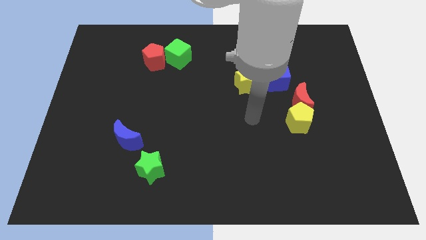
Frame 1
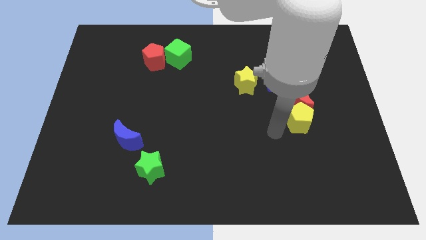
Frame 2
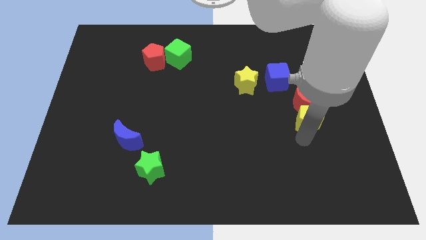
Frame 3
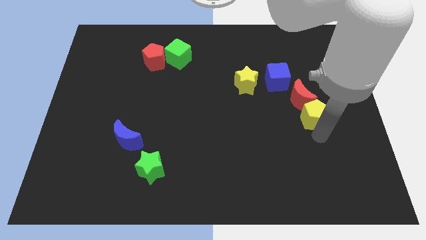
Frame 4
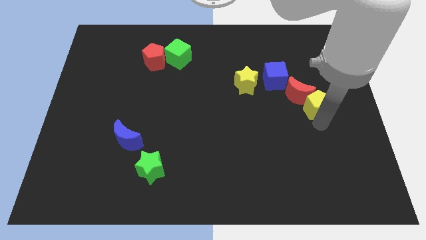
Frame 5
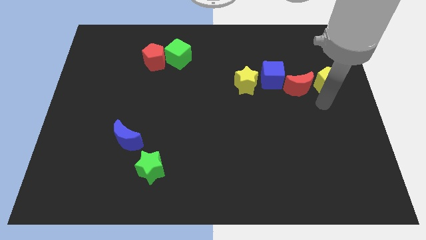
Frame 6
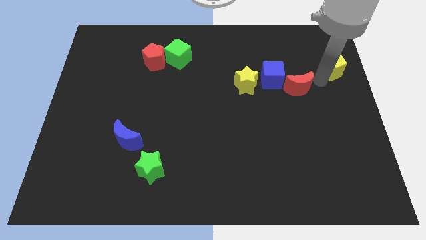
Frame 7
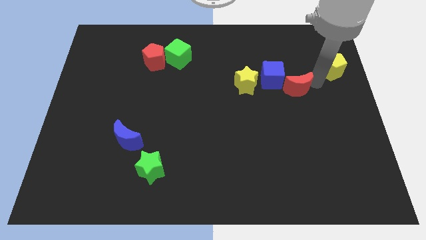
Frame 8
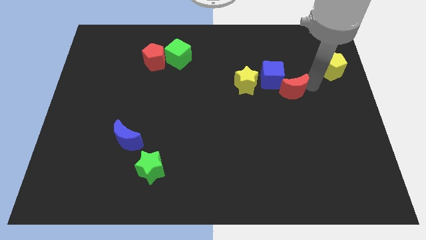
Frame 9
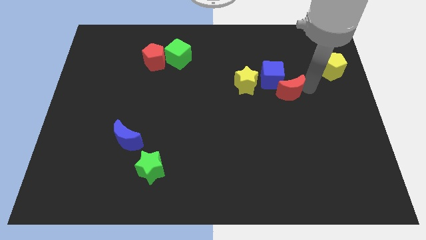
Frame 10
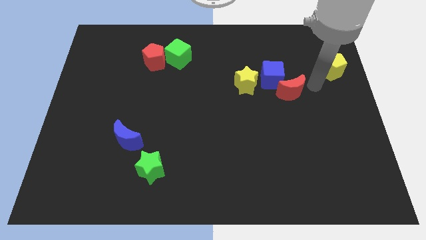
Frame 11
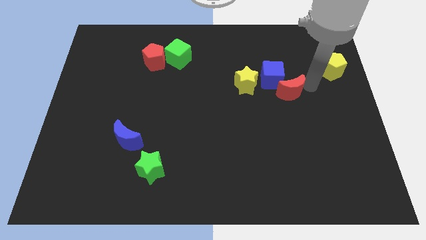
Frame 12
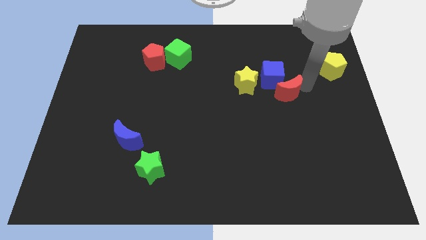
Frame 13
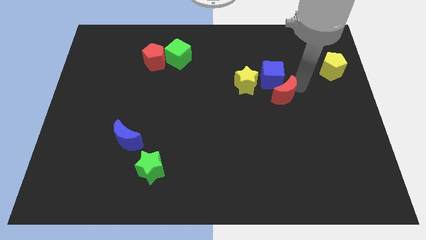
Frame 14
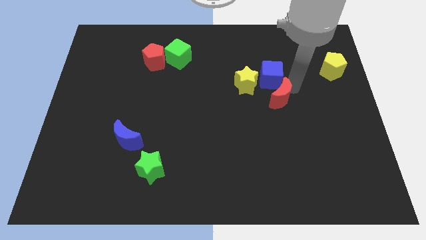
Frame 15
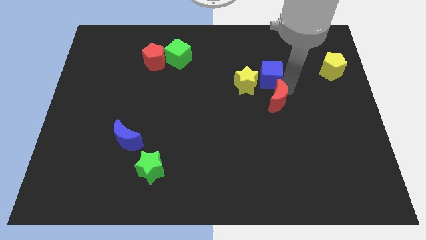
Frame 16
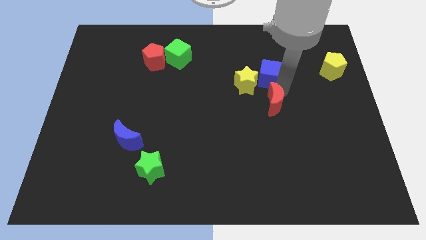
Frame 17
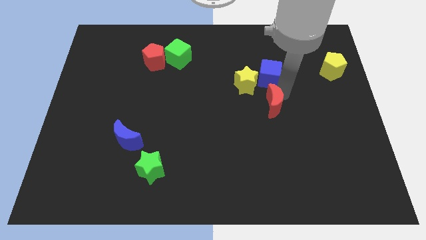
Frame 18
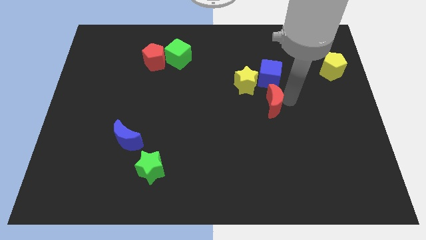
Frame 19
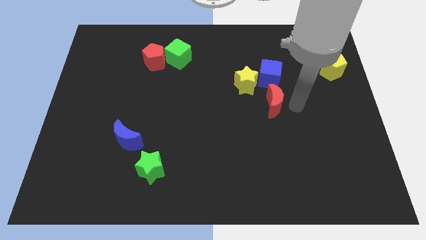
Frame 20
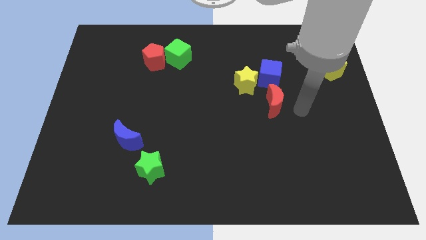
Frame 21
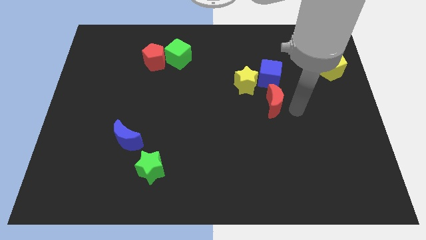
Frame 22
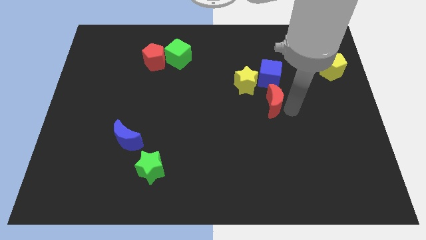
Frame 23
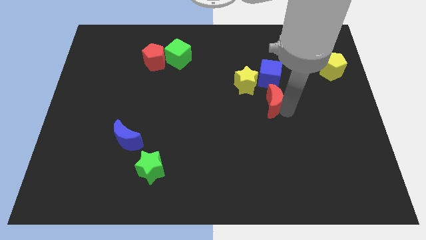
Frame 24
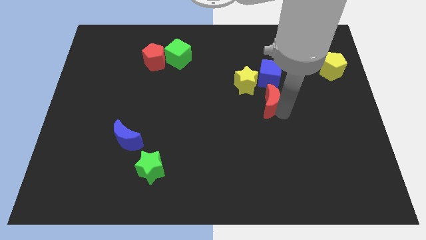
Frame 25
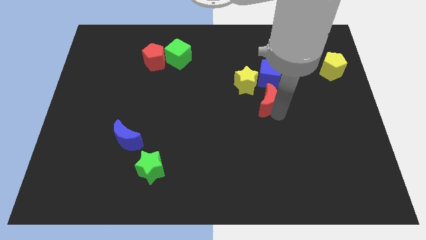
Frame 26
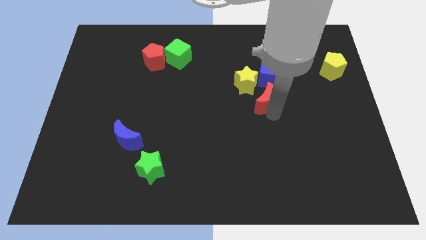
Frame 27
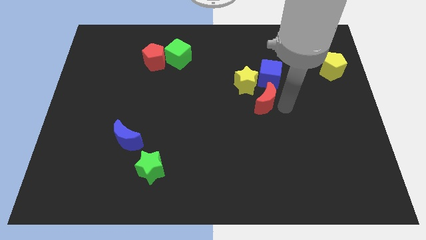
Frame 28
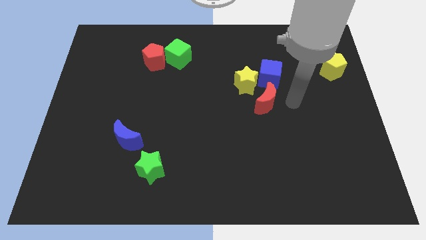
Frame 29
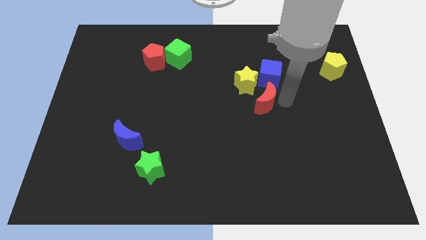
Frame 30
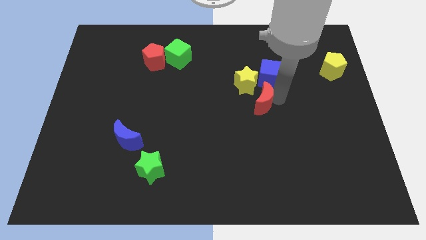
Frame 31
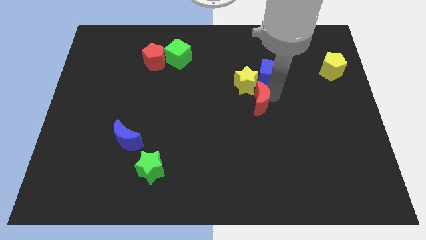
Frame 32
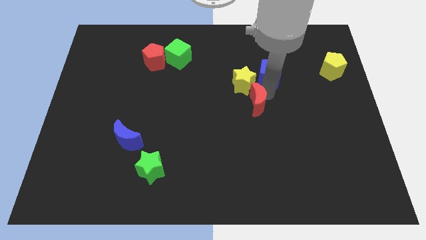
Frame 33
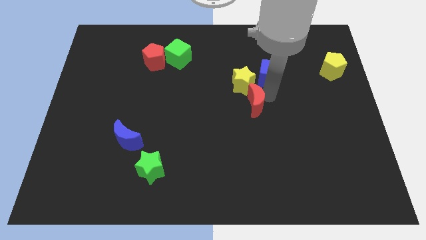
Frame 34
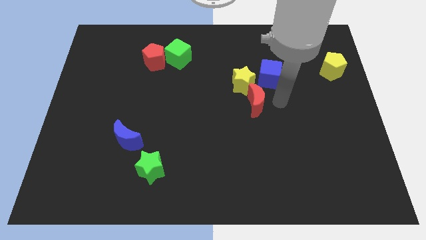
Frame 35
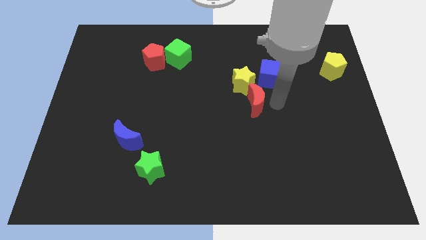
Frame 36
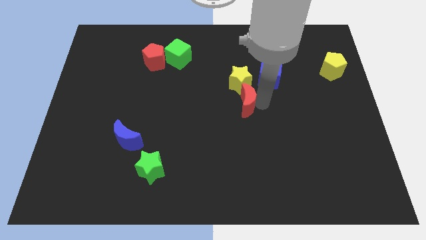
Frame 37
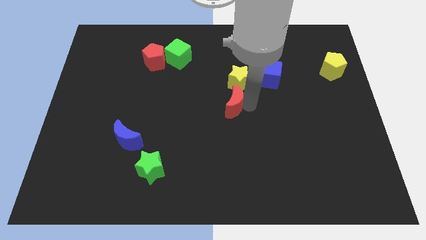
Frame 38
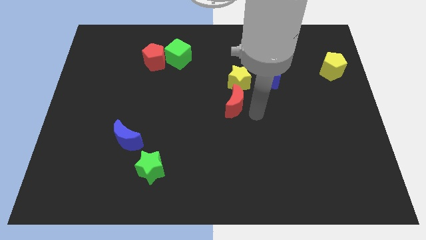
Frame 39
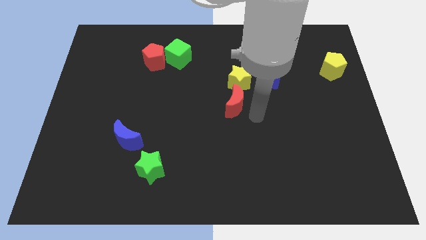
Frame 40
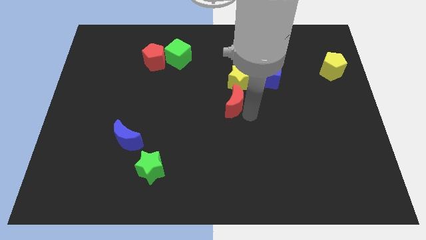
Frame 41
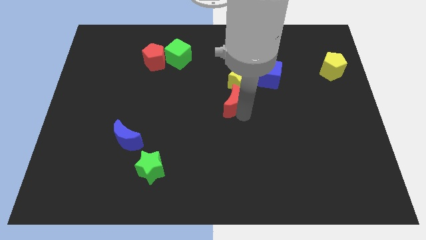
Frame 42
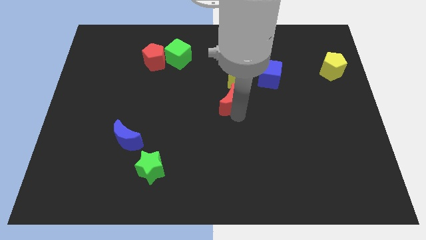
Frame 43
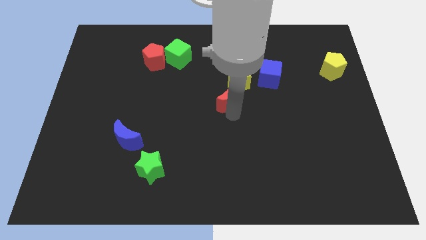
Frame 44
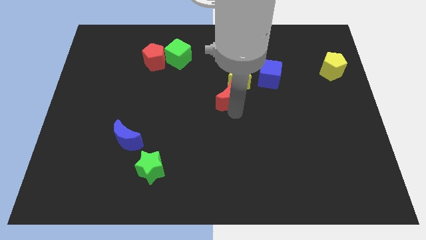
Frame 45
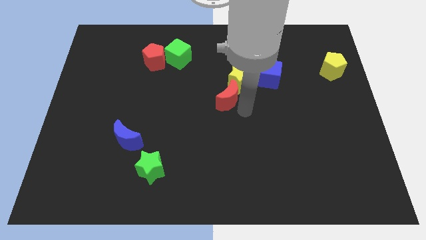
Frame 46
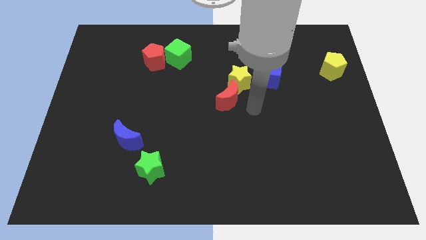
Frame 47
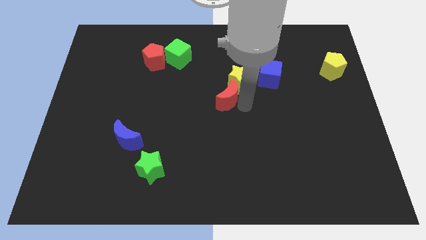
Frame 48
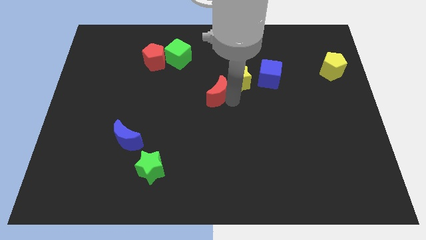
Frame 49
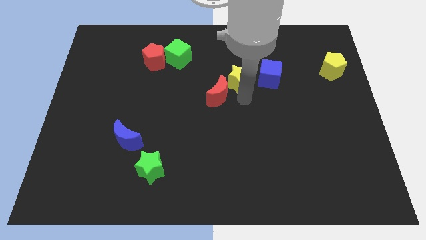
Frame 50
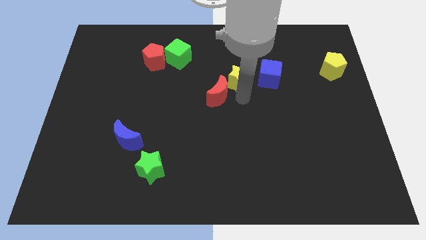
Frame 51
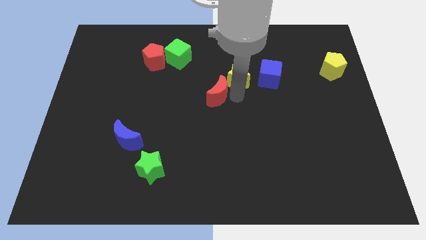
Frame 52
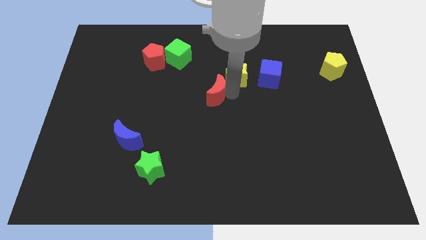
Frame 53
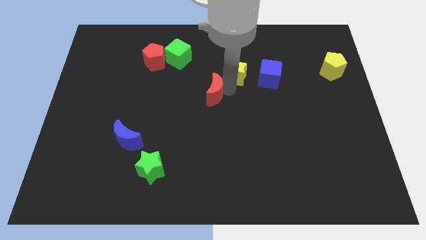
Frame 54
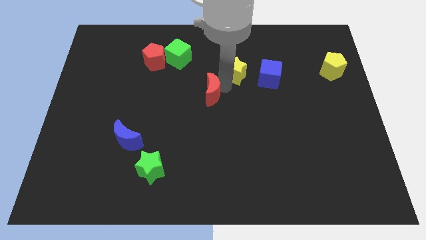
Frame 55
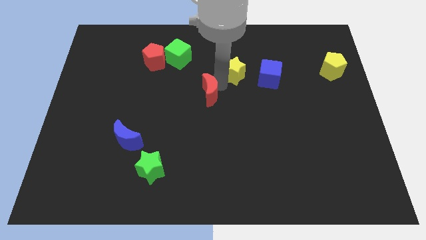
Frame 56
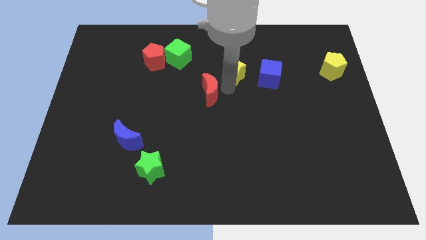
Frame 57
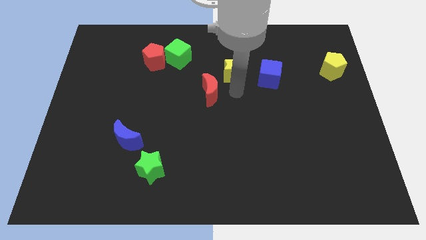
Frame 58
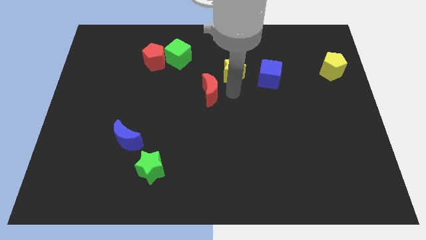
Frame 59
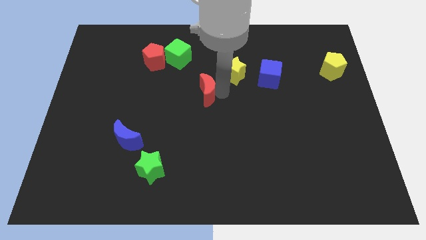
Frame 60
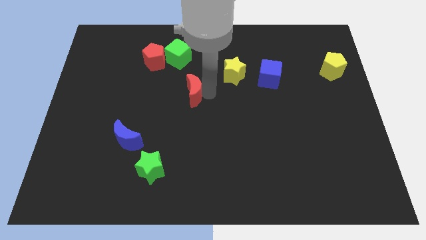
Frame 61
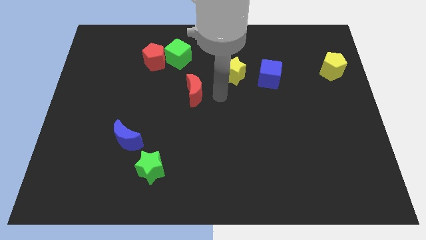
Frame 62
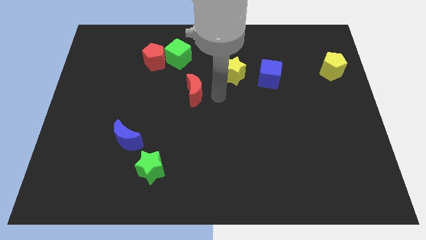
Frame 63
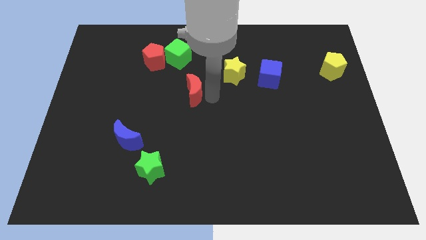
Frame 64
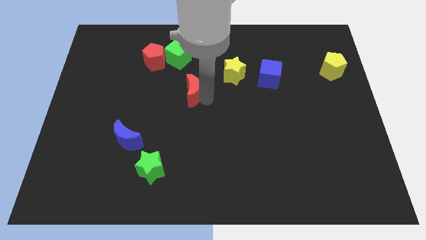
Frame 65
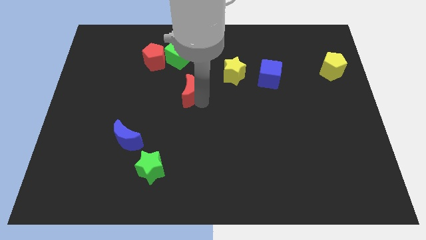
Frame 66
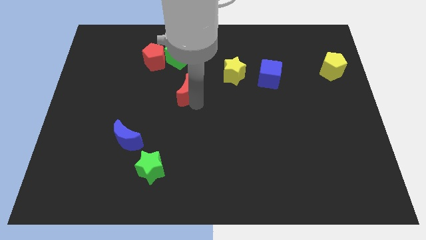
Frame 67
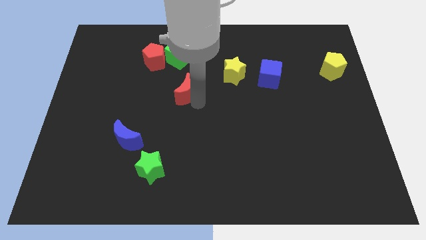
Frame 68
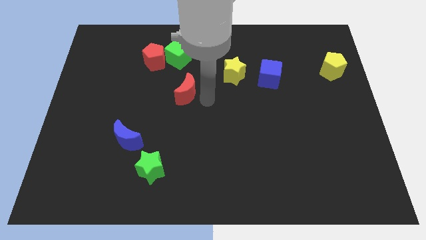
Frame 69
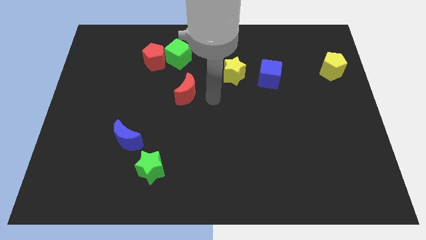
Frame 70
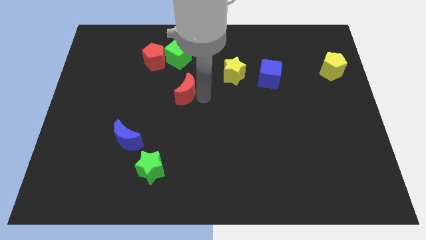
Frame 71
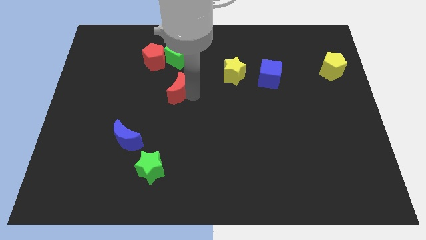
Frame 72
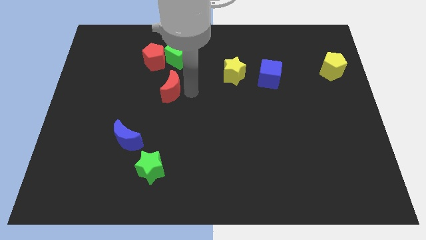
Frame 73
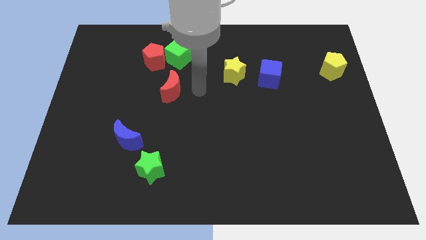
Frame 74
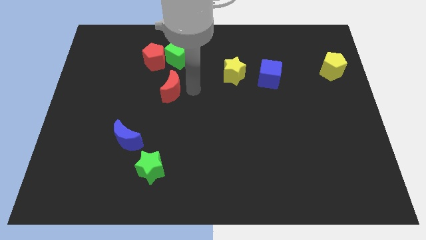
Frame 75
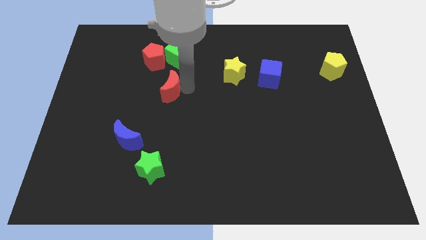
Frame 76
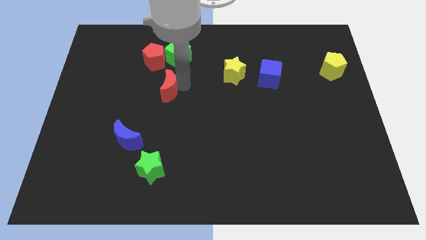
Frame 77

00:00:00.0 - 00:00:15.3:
move the red moon below the red pentagon
